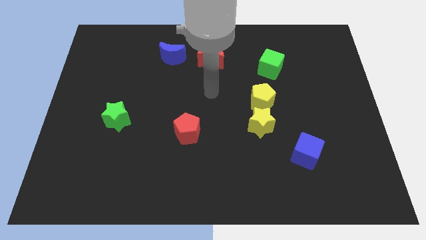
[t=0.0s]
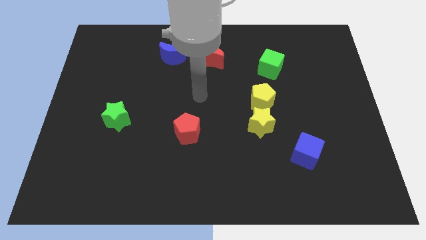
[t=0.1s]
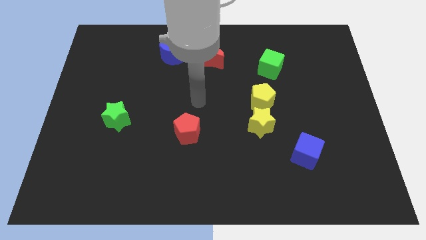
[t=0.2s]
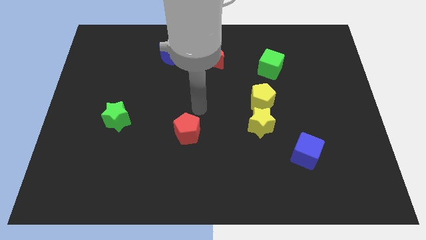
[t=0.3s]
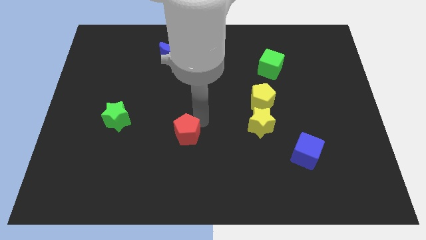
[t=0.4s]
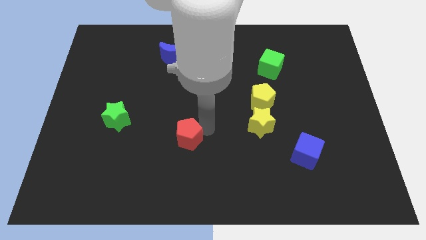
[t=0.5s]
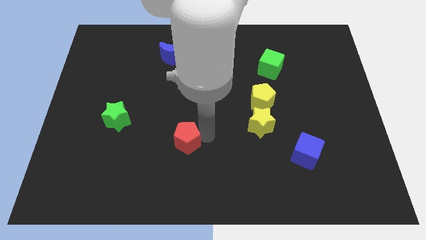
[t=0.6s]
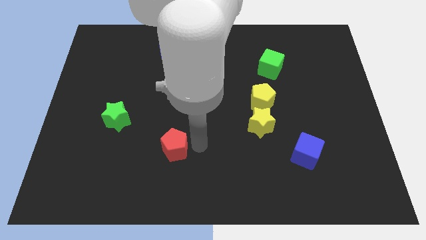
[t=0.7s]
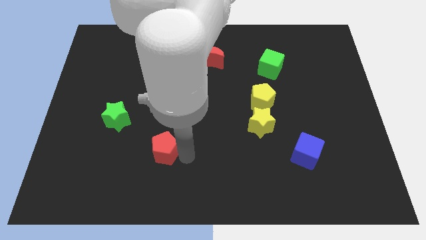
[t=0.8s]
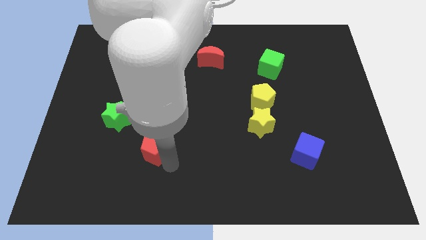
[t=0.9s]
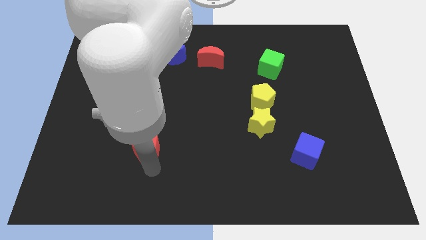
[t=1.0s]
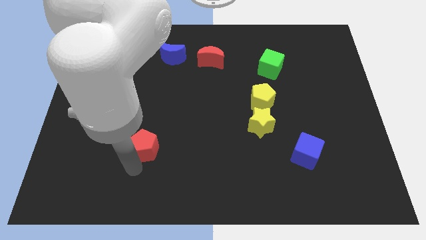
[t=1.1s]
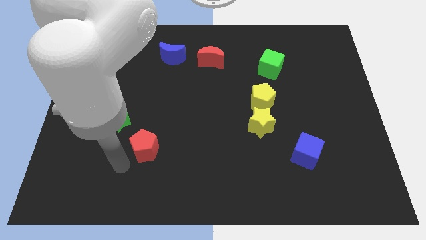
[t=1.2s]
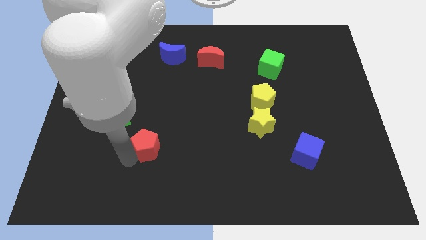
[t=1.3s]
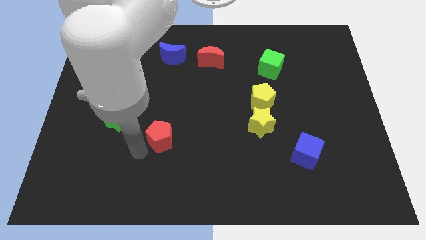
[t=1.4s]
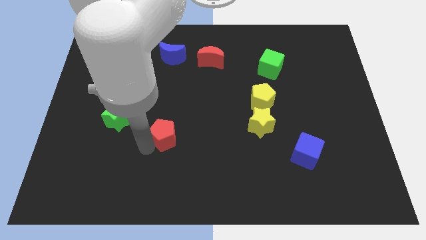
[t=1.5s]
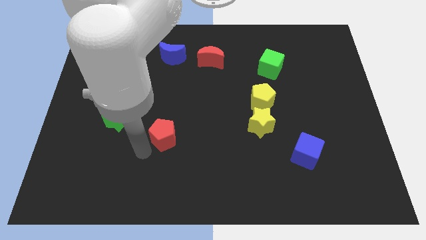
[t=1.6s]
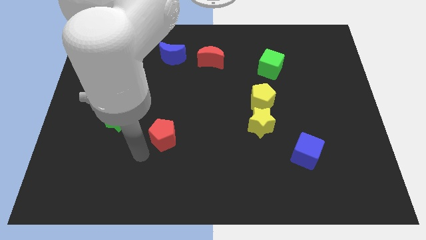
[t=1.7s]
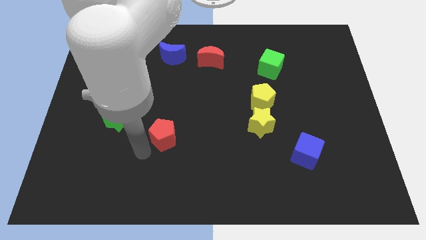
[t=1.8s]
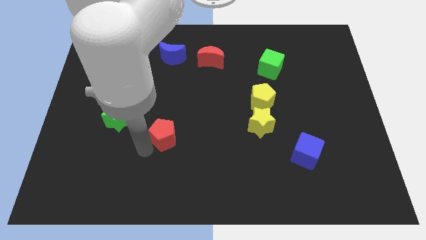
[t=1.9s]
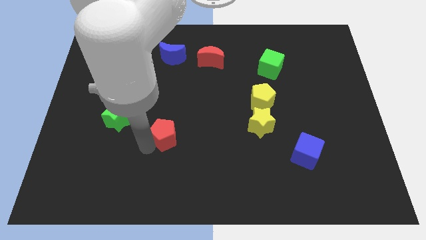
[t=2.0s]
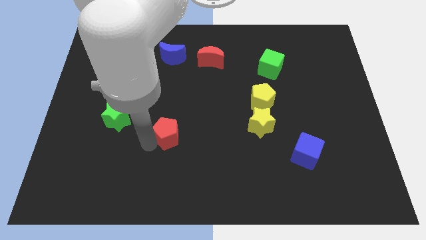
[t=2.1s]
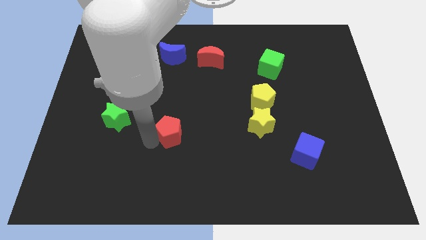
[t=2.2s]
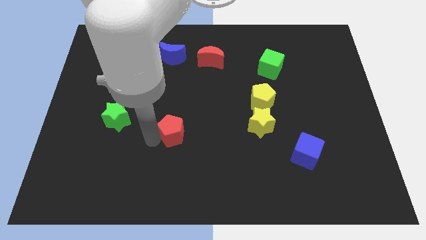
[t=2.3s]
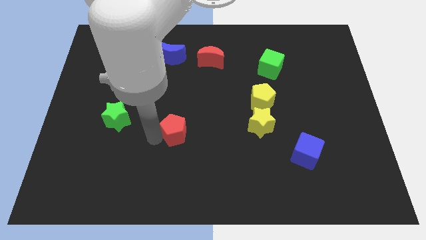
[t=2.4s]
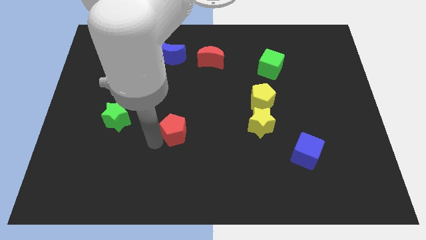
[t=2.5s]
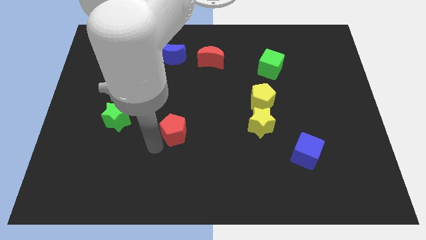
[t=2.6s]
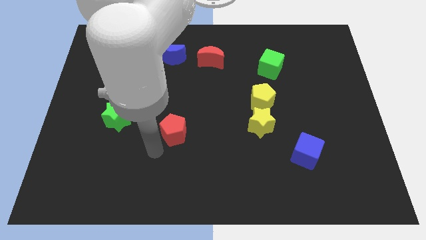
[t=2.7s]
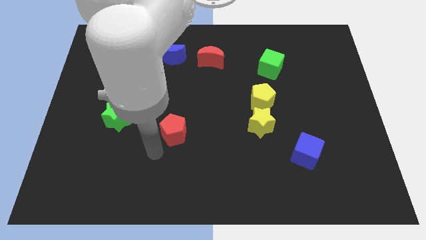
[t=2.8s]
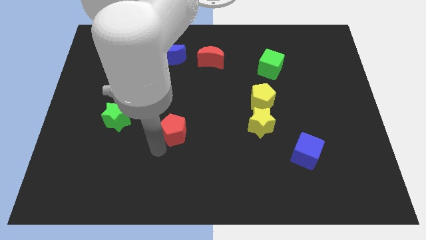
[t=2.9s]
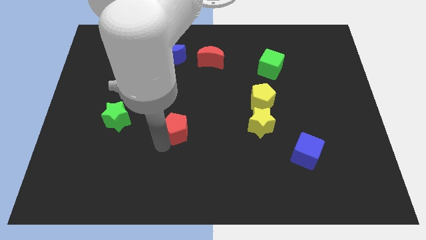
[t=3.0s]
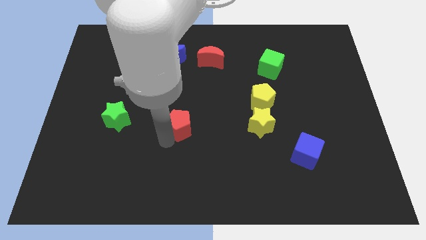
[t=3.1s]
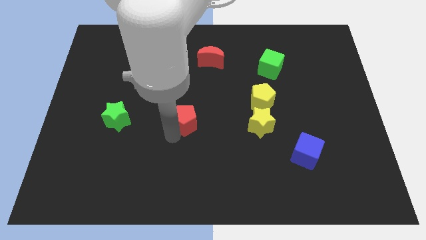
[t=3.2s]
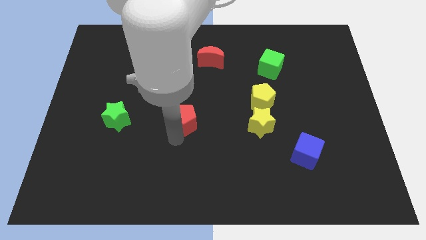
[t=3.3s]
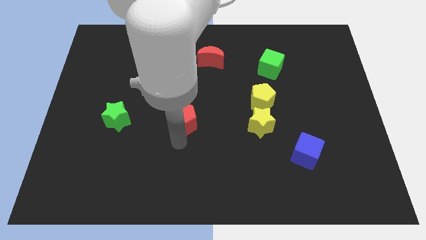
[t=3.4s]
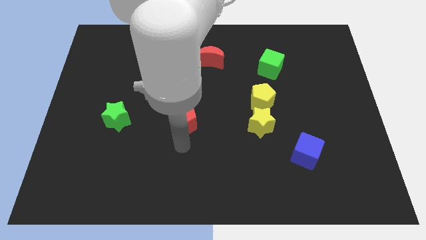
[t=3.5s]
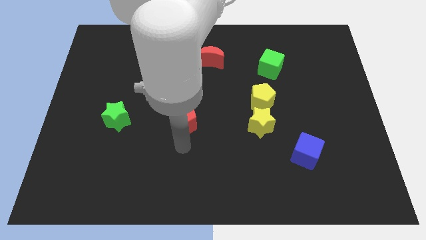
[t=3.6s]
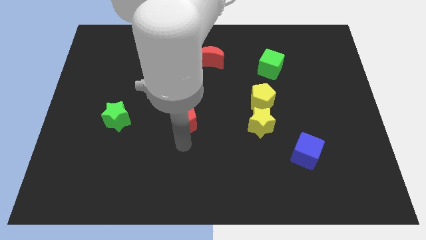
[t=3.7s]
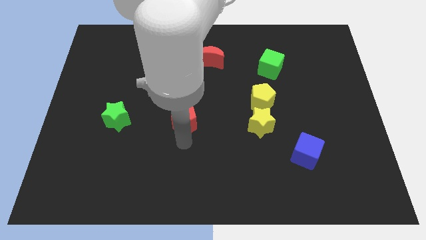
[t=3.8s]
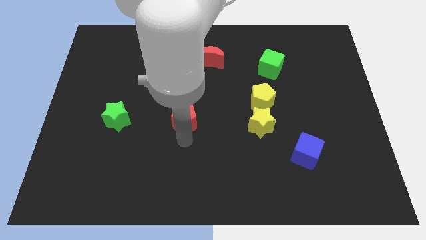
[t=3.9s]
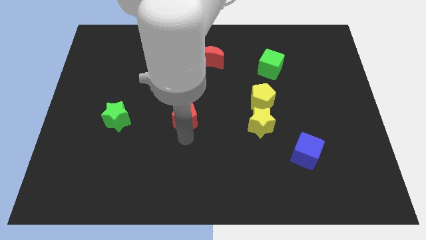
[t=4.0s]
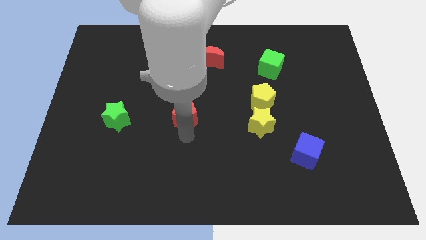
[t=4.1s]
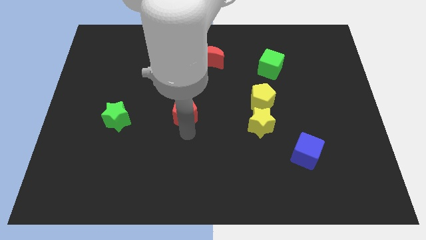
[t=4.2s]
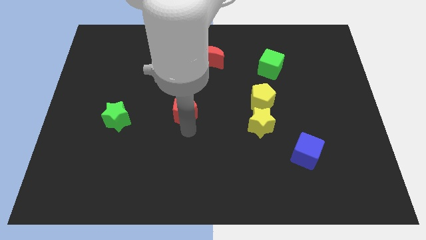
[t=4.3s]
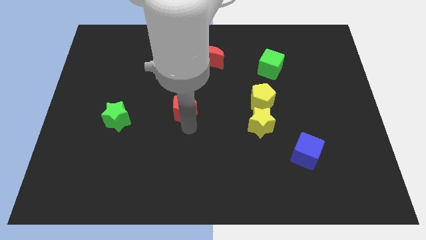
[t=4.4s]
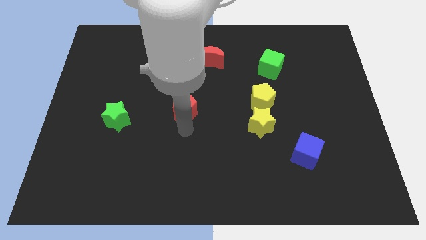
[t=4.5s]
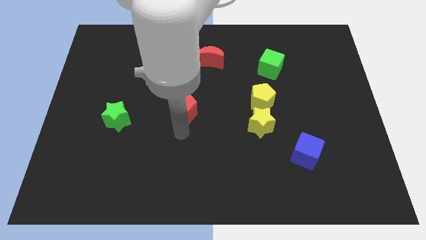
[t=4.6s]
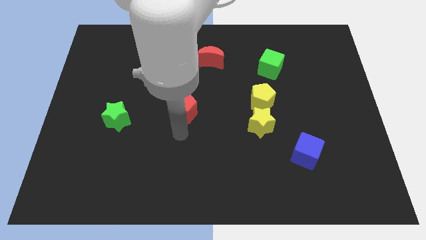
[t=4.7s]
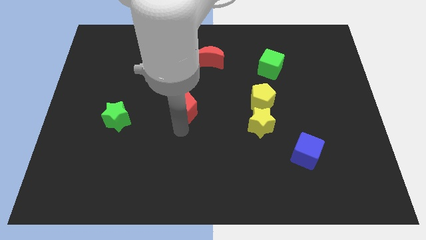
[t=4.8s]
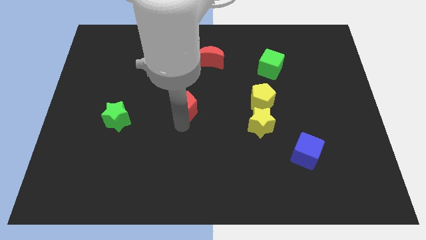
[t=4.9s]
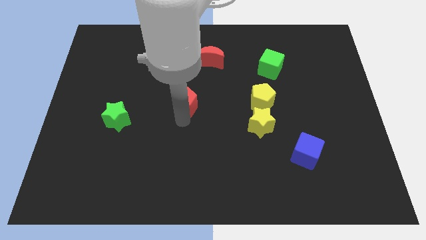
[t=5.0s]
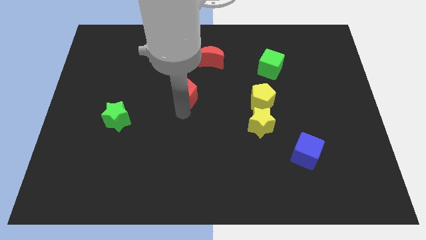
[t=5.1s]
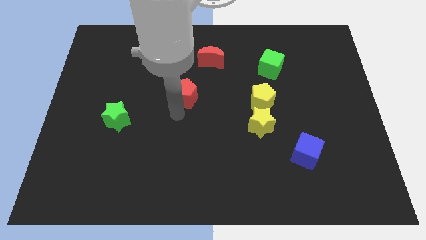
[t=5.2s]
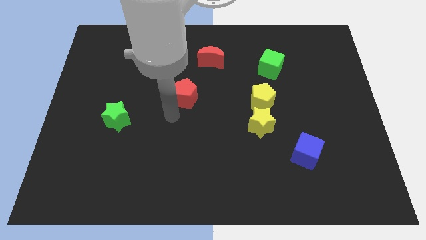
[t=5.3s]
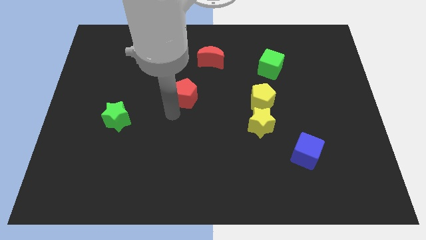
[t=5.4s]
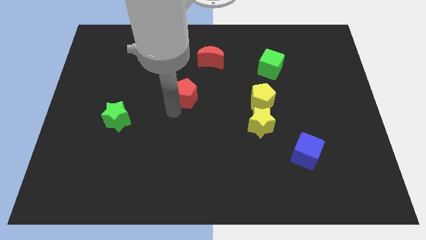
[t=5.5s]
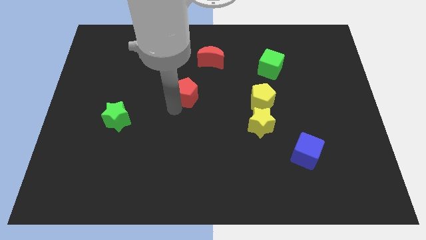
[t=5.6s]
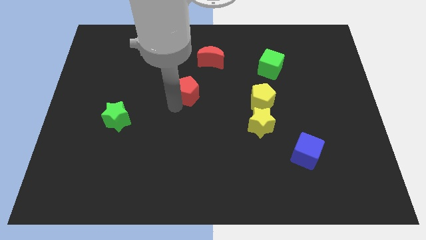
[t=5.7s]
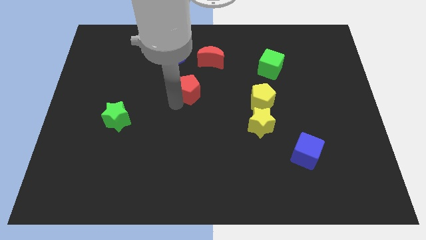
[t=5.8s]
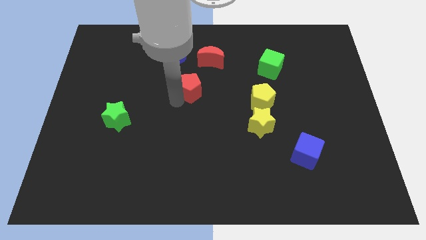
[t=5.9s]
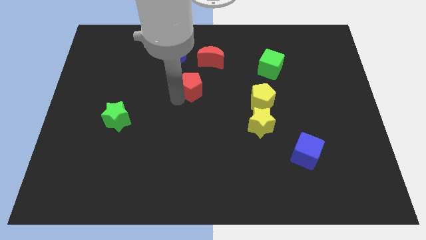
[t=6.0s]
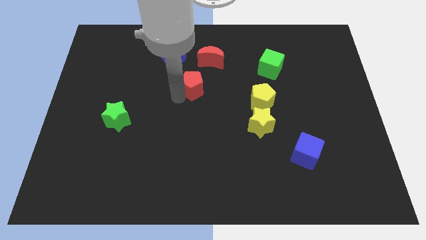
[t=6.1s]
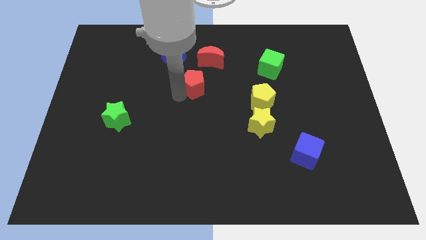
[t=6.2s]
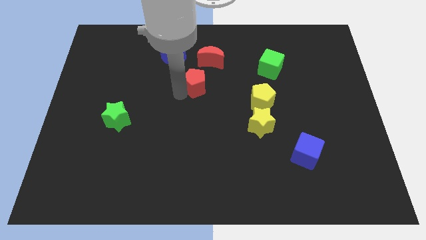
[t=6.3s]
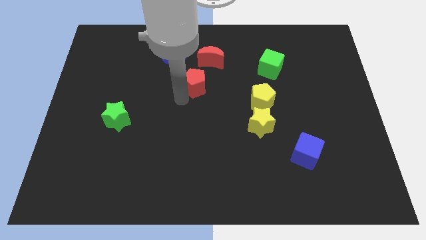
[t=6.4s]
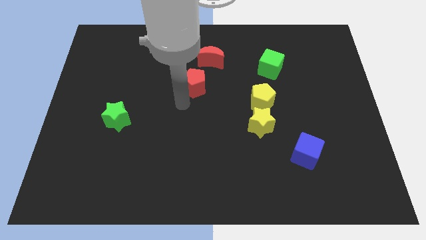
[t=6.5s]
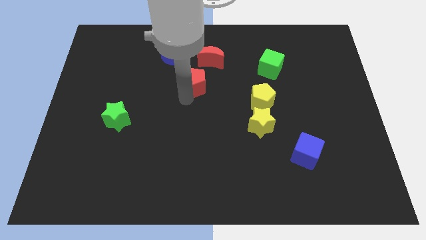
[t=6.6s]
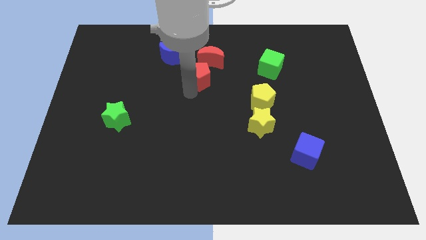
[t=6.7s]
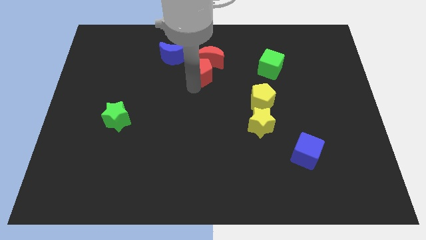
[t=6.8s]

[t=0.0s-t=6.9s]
put the red pentagon to the red moon

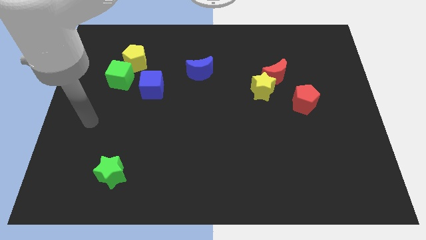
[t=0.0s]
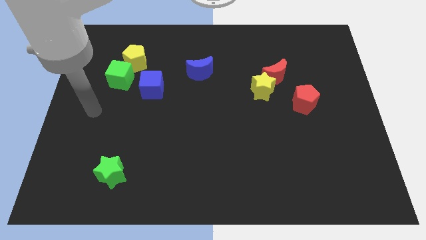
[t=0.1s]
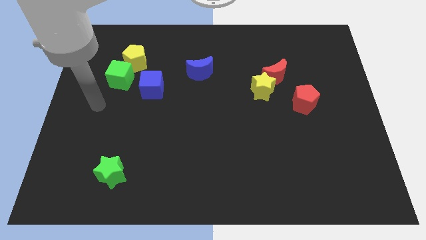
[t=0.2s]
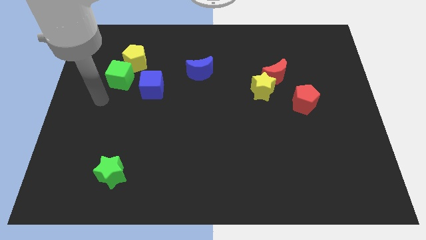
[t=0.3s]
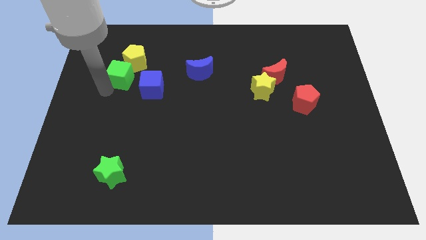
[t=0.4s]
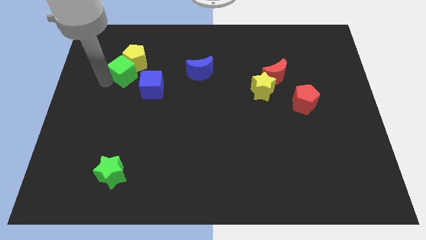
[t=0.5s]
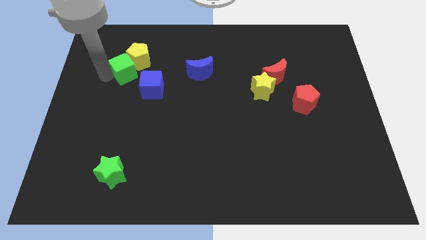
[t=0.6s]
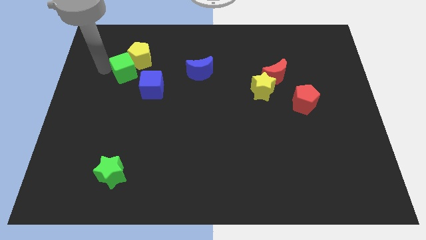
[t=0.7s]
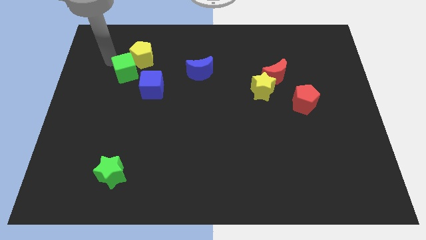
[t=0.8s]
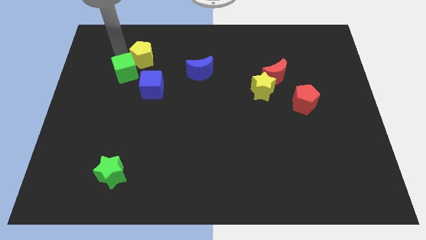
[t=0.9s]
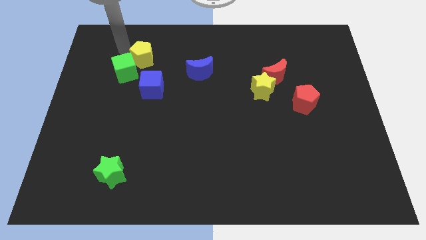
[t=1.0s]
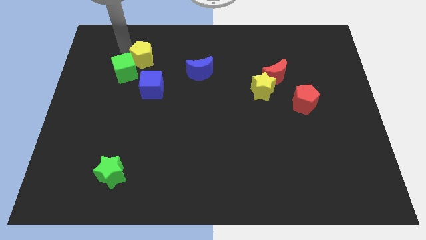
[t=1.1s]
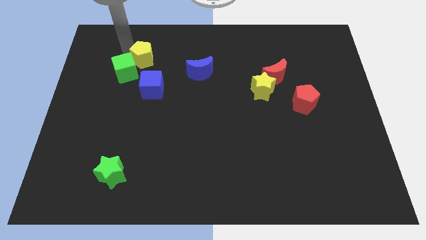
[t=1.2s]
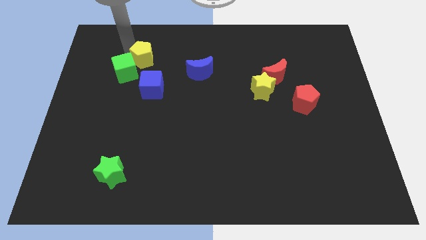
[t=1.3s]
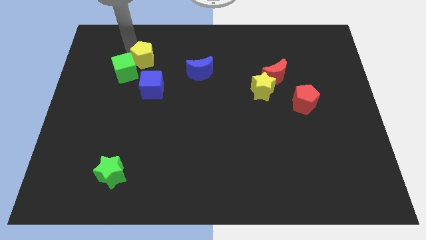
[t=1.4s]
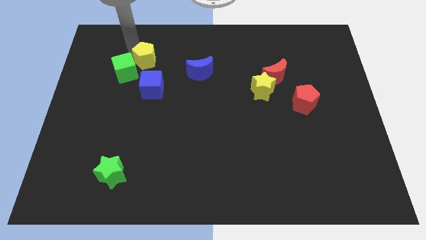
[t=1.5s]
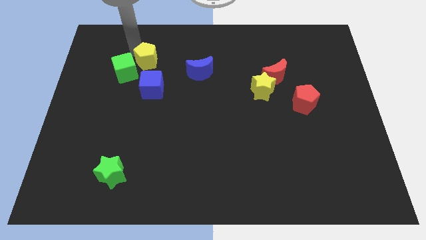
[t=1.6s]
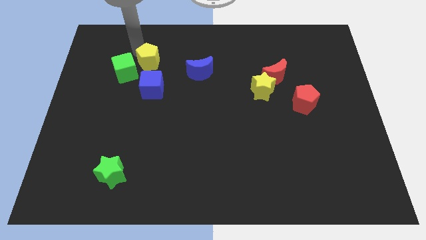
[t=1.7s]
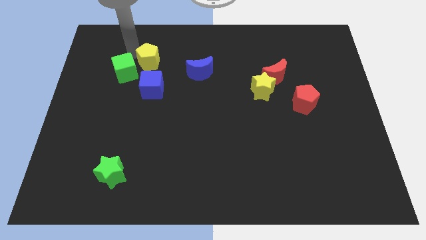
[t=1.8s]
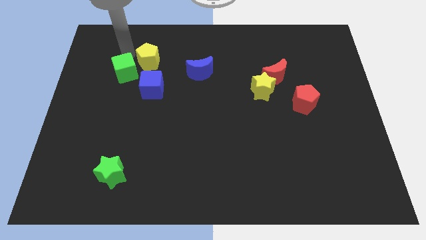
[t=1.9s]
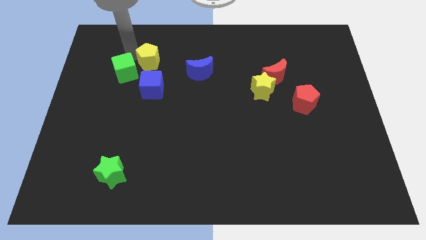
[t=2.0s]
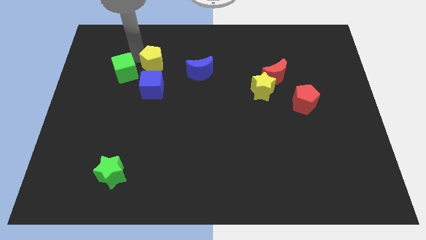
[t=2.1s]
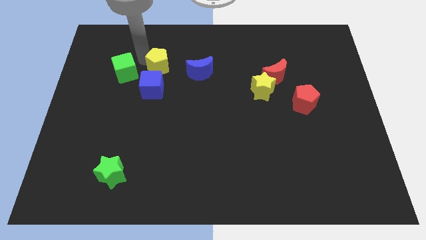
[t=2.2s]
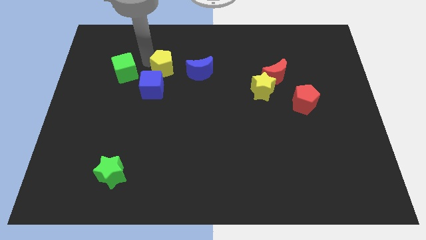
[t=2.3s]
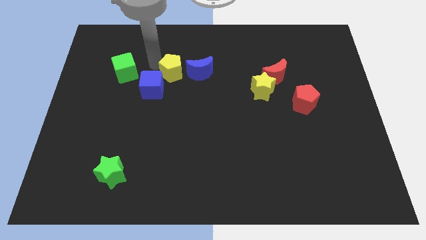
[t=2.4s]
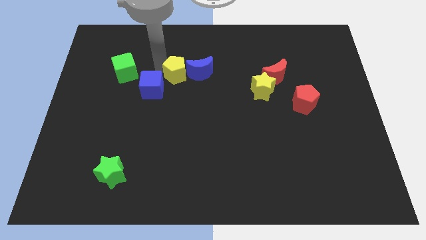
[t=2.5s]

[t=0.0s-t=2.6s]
slide the yellow pentagon next to the blue moon
